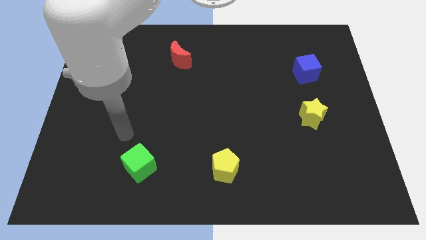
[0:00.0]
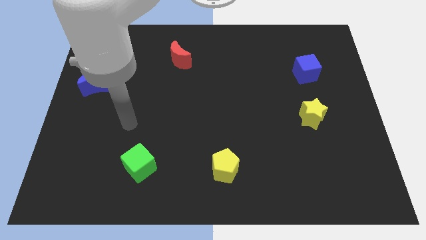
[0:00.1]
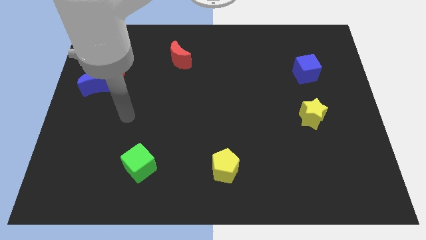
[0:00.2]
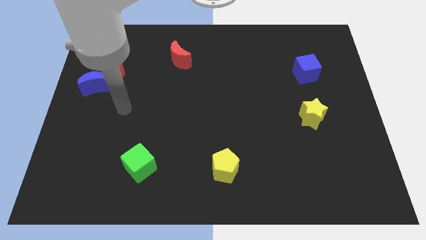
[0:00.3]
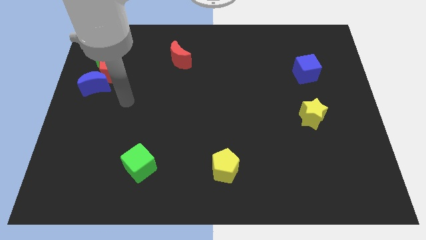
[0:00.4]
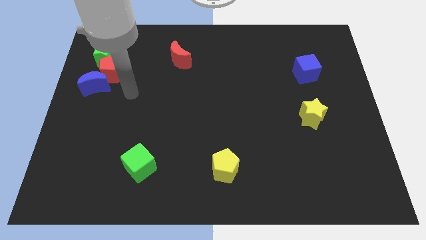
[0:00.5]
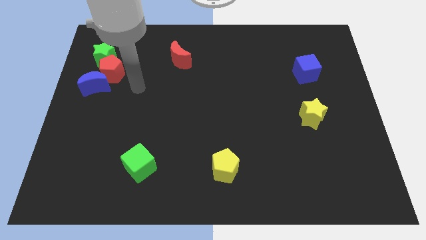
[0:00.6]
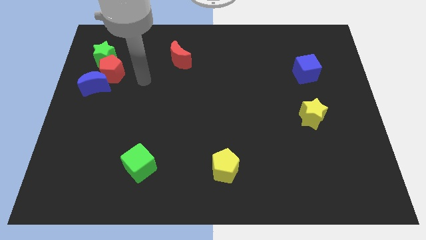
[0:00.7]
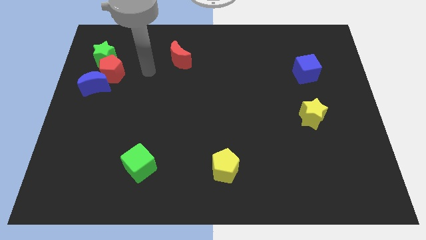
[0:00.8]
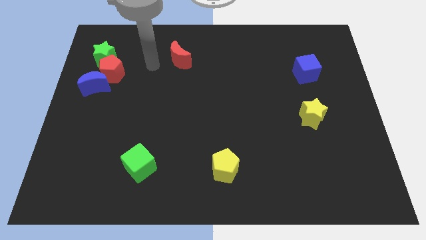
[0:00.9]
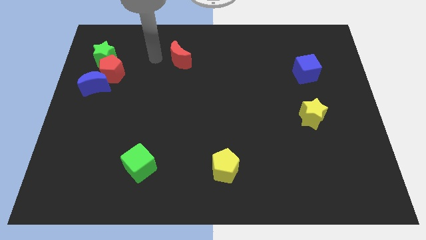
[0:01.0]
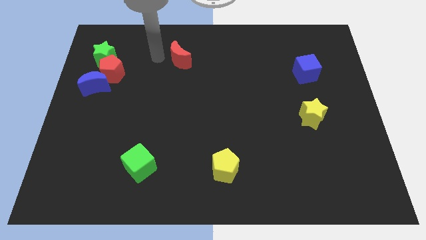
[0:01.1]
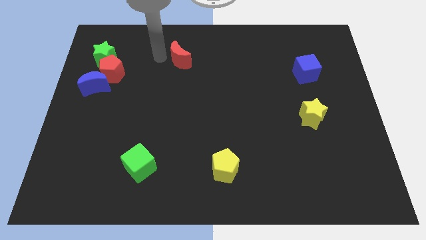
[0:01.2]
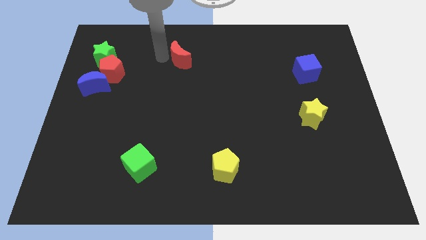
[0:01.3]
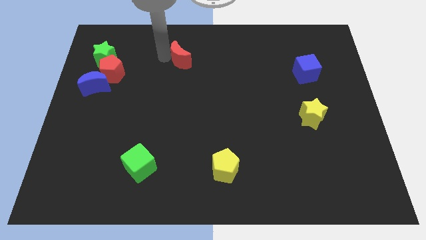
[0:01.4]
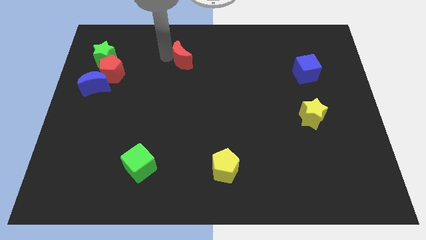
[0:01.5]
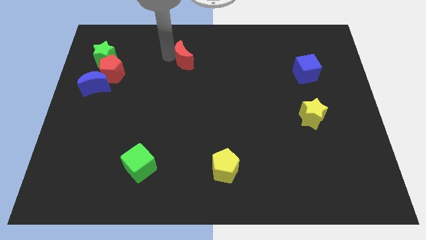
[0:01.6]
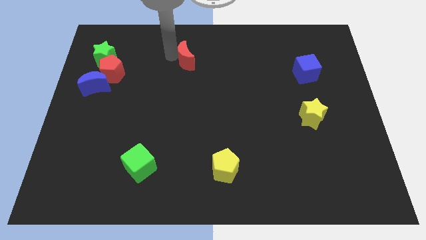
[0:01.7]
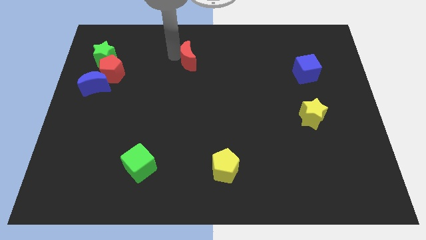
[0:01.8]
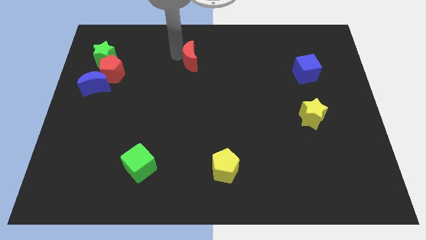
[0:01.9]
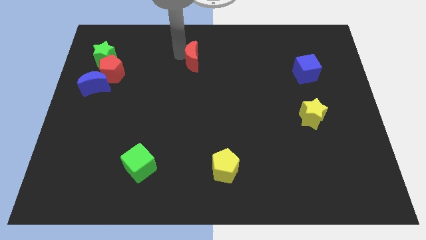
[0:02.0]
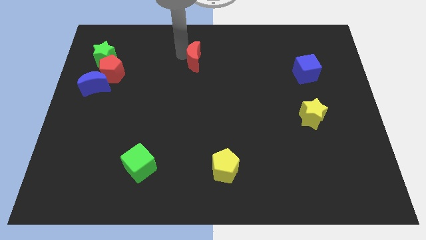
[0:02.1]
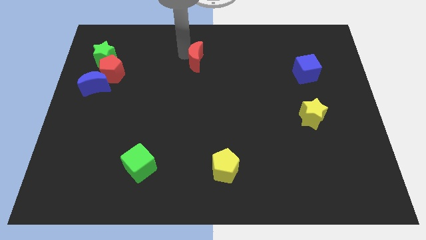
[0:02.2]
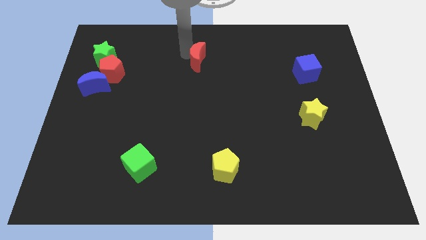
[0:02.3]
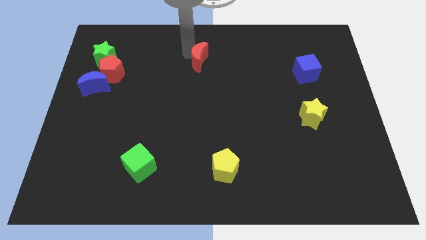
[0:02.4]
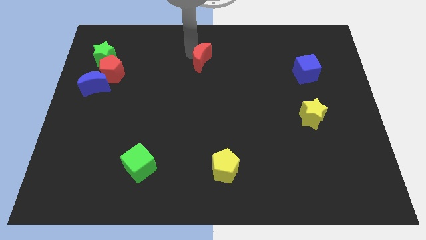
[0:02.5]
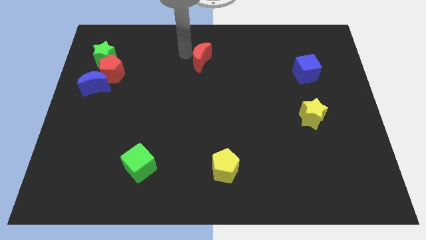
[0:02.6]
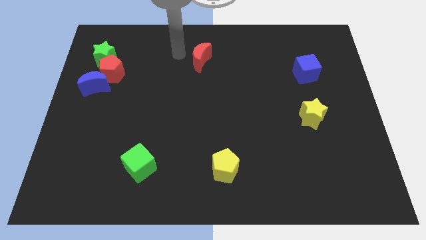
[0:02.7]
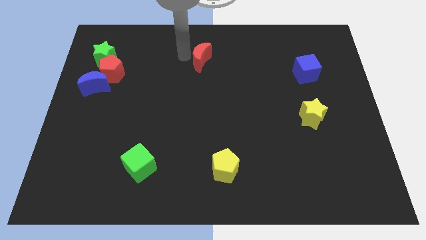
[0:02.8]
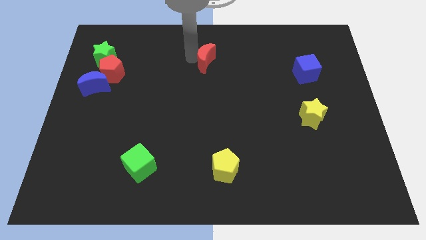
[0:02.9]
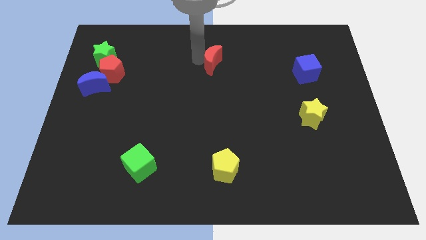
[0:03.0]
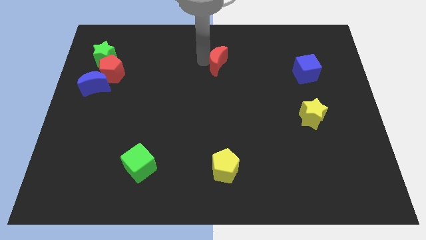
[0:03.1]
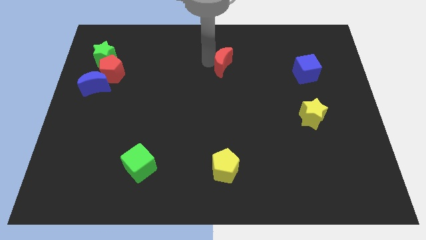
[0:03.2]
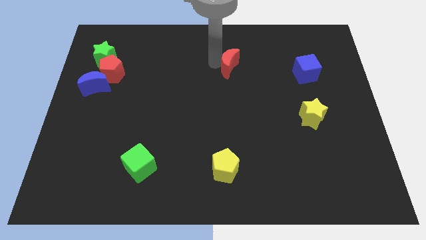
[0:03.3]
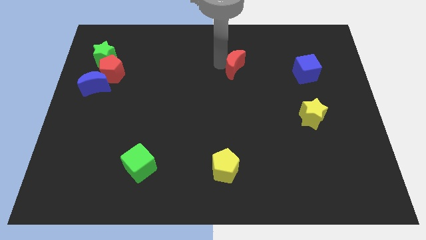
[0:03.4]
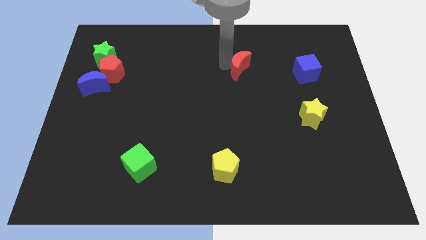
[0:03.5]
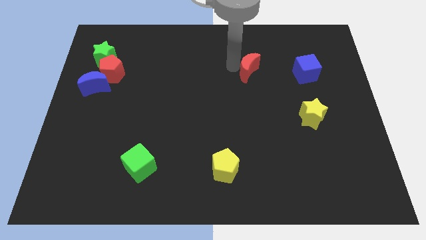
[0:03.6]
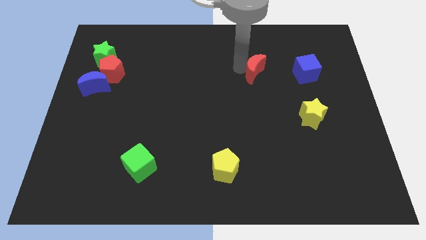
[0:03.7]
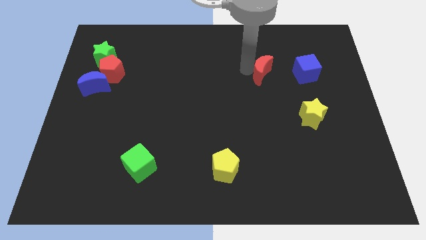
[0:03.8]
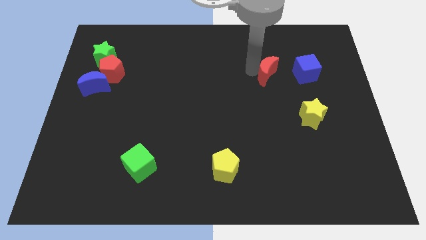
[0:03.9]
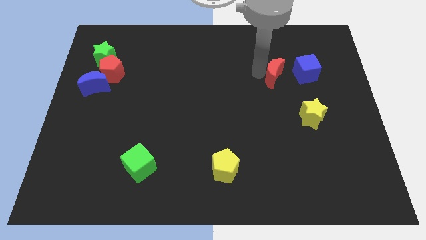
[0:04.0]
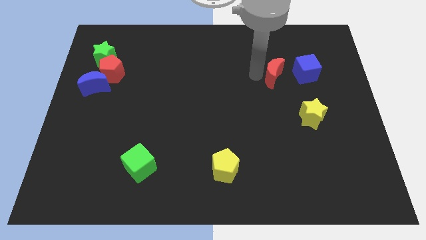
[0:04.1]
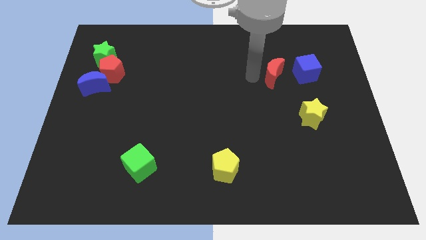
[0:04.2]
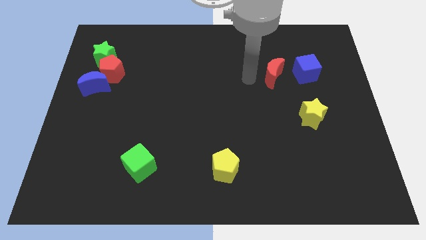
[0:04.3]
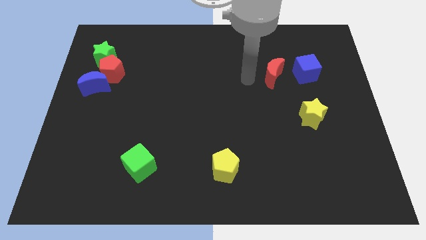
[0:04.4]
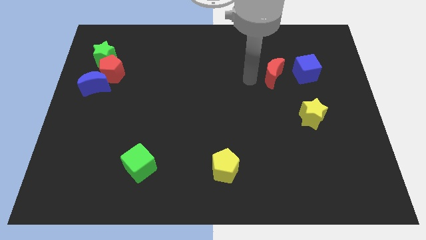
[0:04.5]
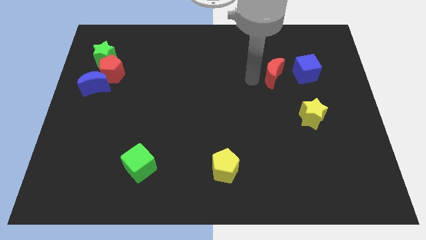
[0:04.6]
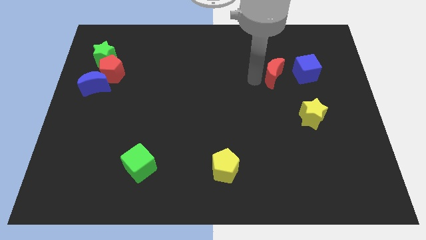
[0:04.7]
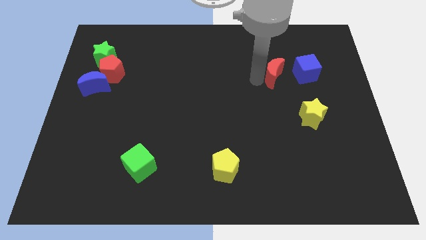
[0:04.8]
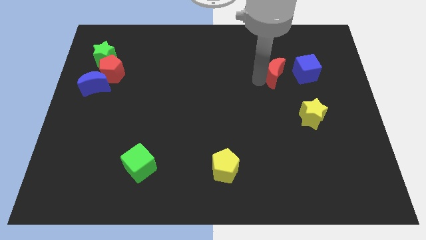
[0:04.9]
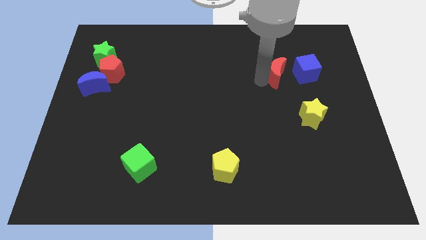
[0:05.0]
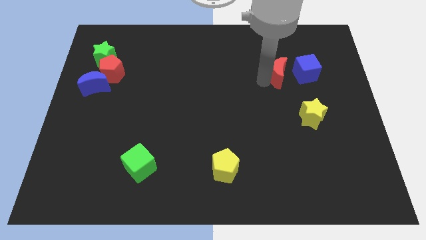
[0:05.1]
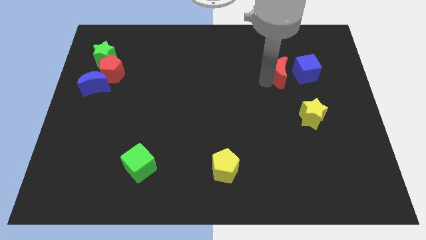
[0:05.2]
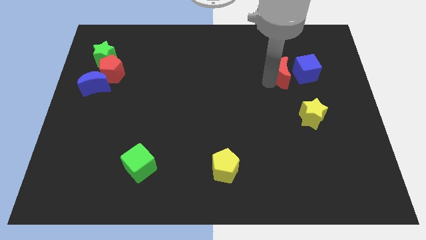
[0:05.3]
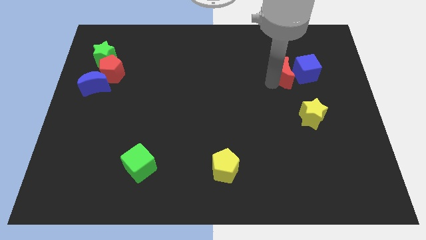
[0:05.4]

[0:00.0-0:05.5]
put the red moon next to the blue cube

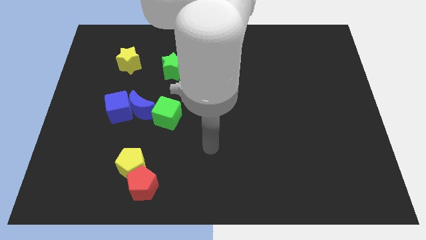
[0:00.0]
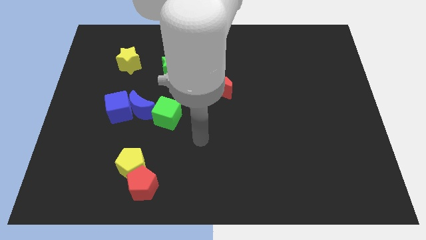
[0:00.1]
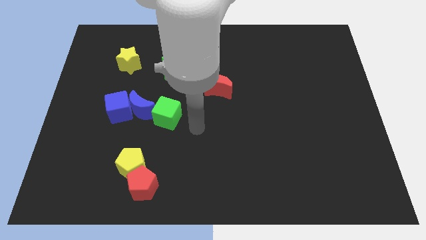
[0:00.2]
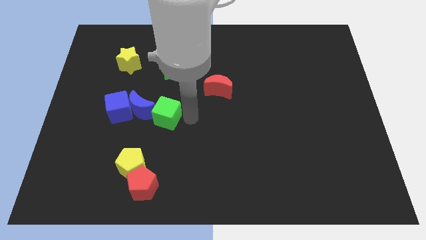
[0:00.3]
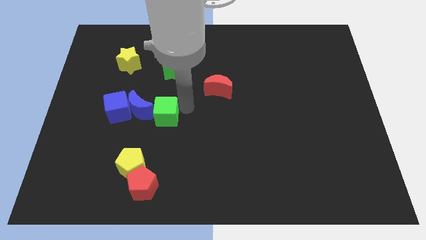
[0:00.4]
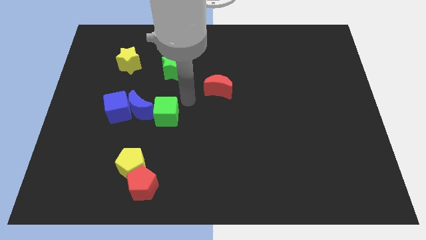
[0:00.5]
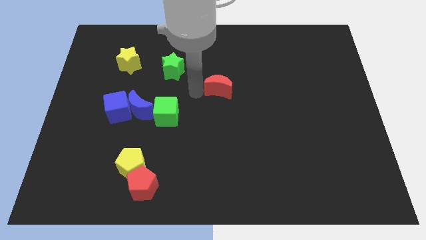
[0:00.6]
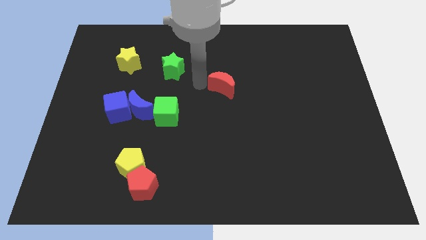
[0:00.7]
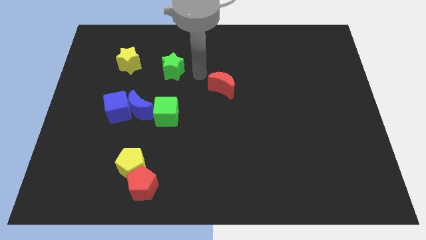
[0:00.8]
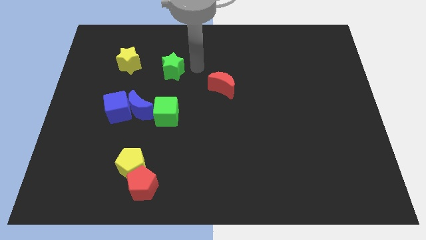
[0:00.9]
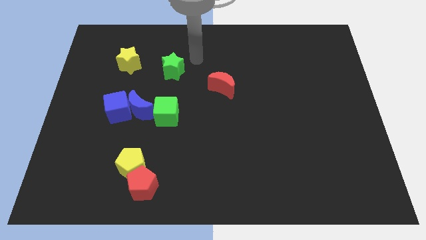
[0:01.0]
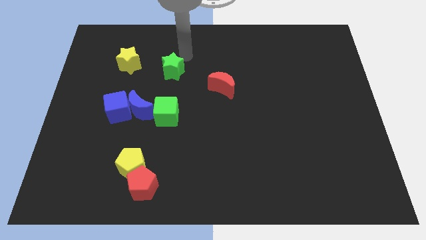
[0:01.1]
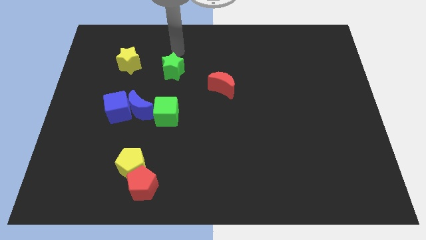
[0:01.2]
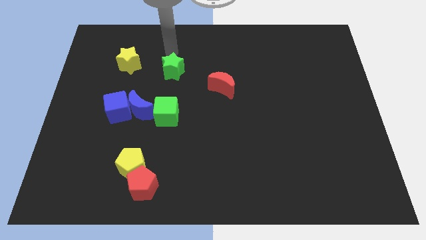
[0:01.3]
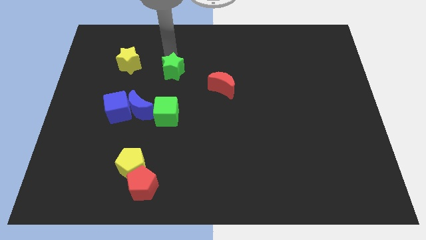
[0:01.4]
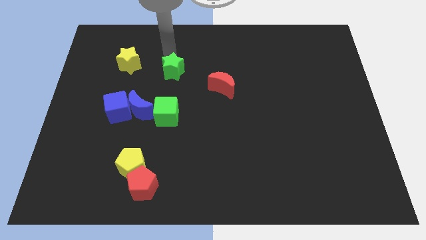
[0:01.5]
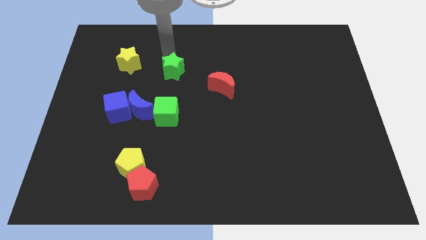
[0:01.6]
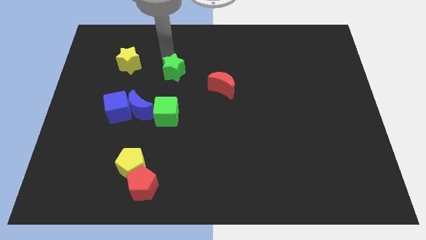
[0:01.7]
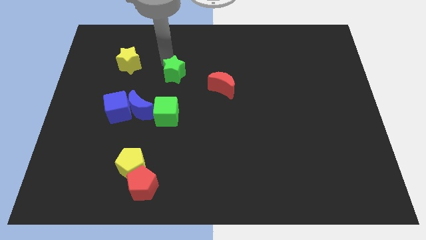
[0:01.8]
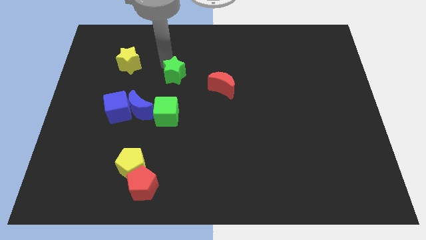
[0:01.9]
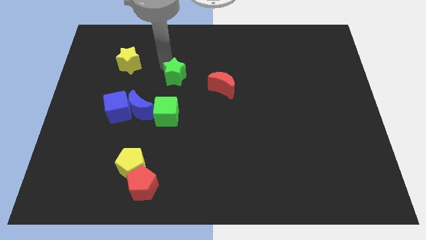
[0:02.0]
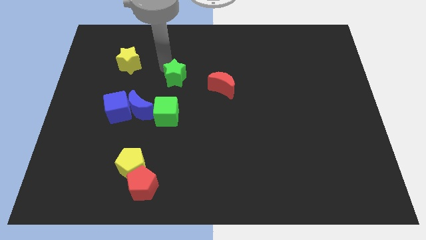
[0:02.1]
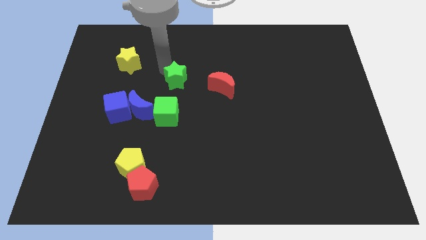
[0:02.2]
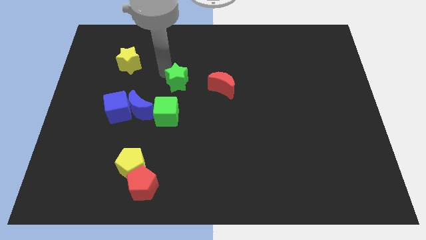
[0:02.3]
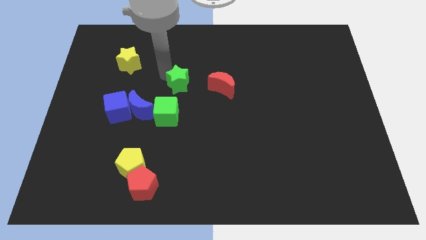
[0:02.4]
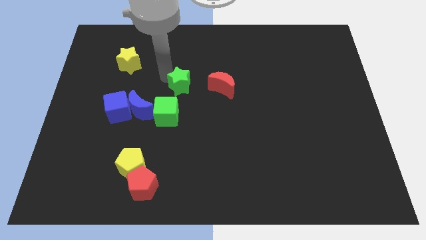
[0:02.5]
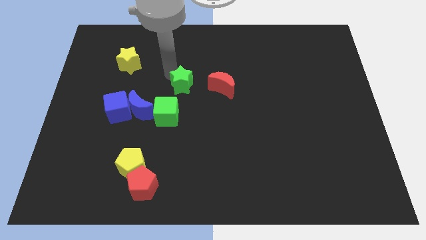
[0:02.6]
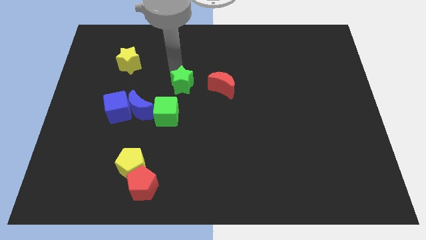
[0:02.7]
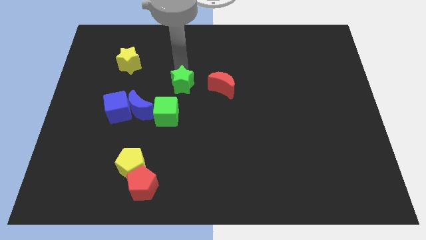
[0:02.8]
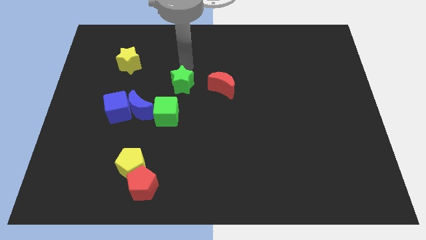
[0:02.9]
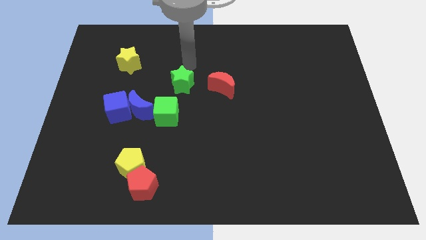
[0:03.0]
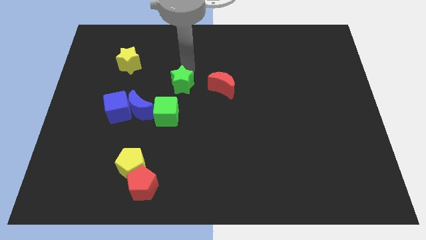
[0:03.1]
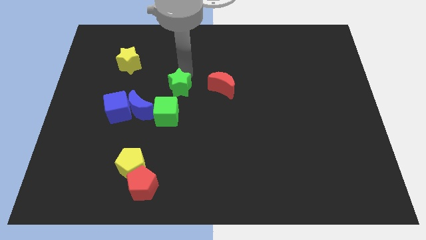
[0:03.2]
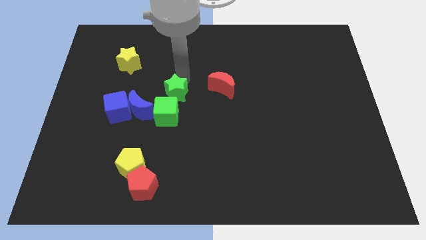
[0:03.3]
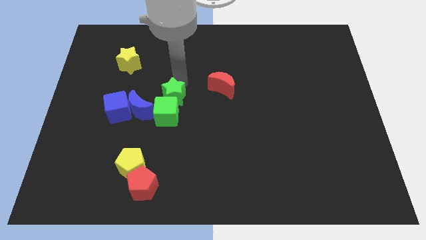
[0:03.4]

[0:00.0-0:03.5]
slide the green star next to the green cube
